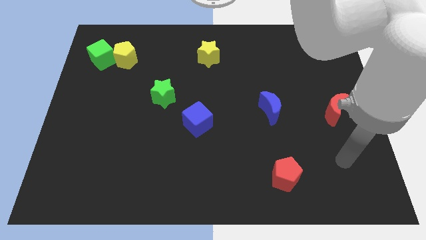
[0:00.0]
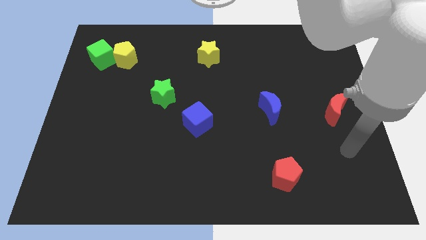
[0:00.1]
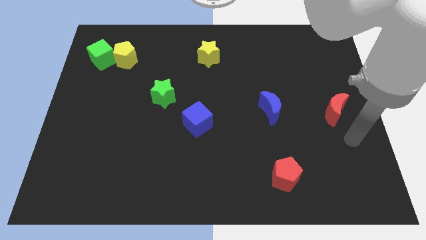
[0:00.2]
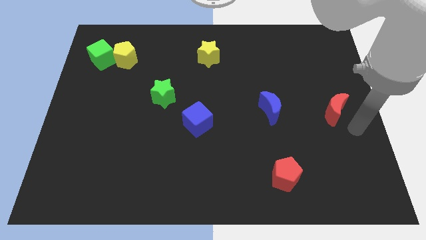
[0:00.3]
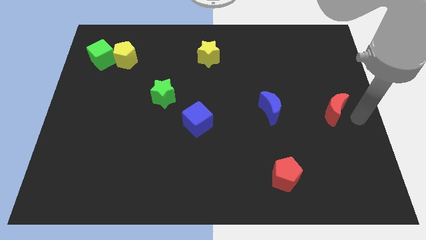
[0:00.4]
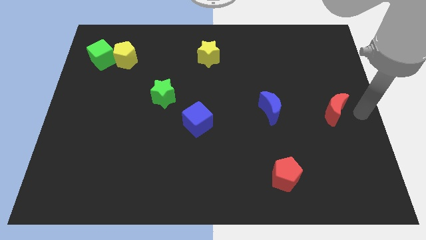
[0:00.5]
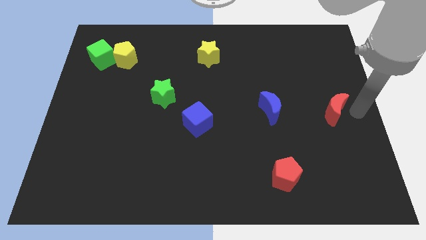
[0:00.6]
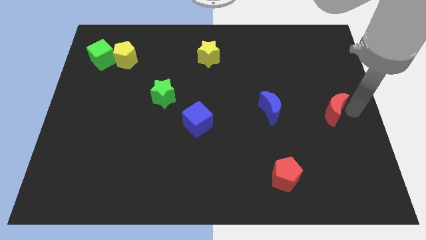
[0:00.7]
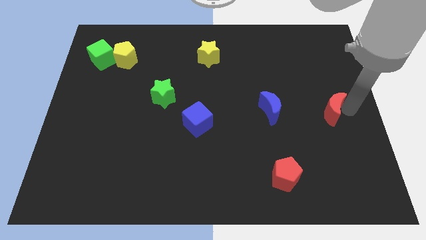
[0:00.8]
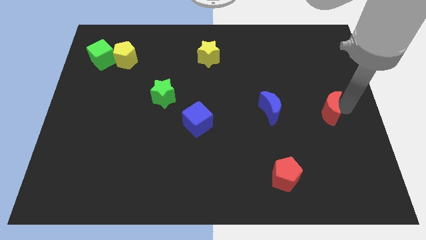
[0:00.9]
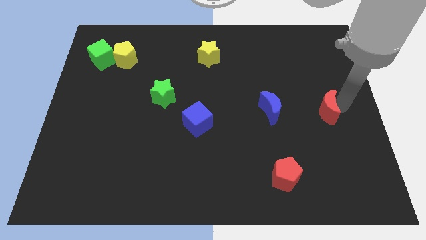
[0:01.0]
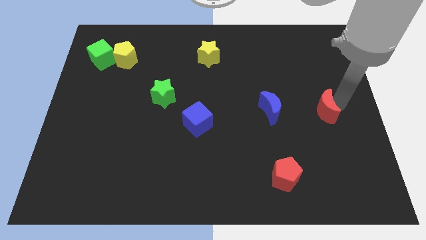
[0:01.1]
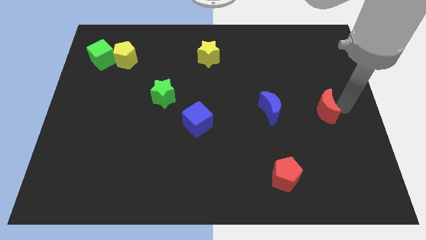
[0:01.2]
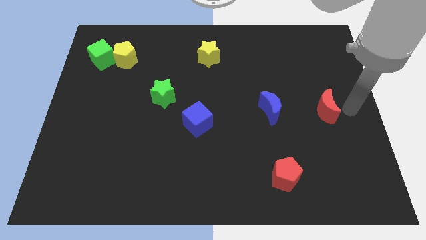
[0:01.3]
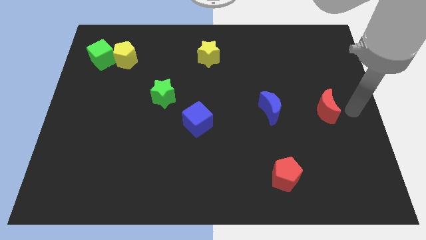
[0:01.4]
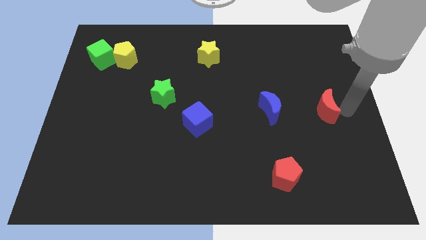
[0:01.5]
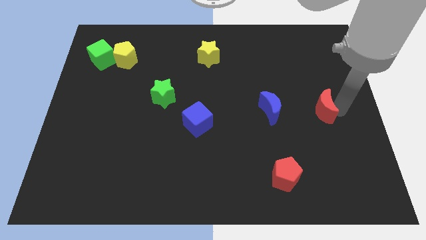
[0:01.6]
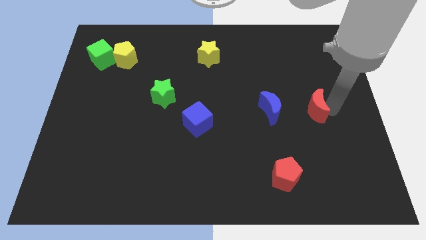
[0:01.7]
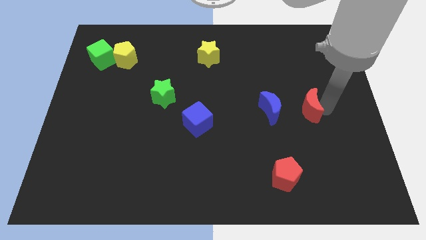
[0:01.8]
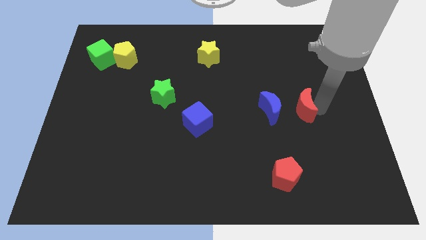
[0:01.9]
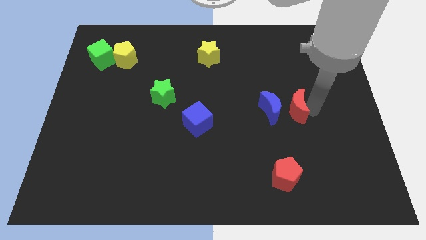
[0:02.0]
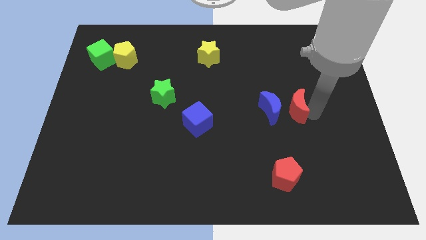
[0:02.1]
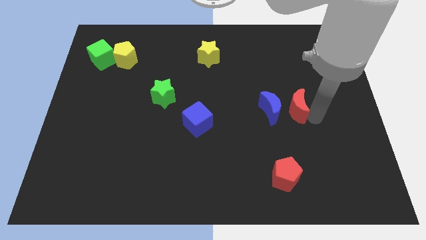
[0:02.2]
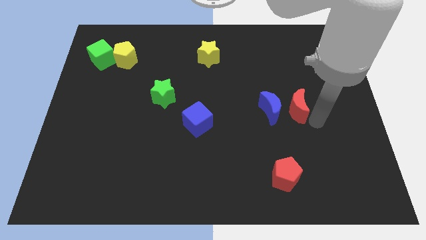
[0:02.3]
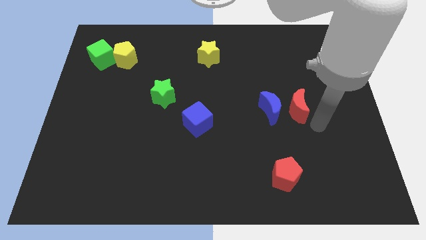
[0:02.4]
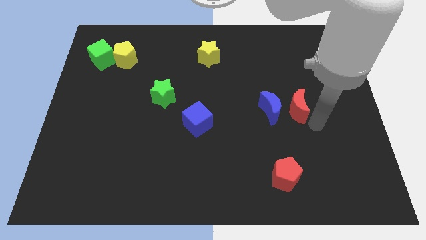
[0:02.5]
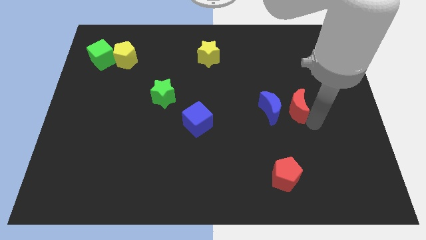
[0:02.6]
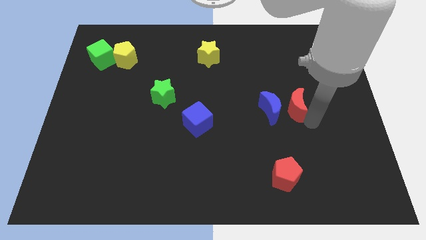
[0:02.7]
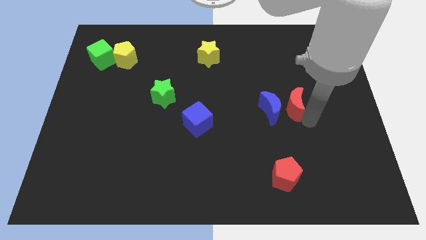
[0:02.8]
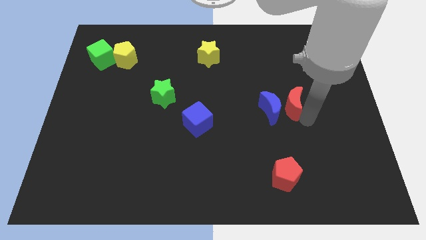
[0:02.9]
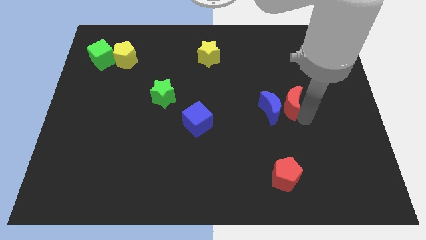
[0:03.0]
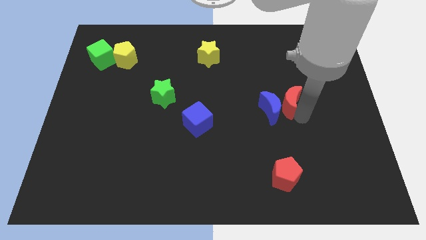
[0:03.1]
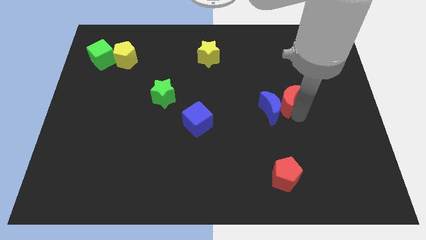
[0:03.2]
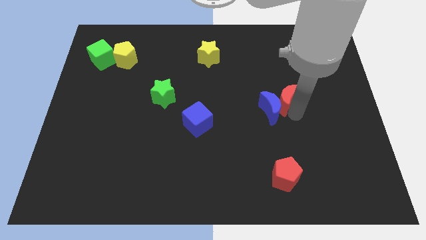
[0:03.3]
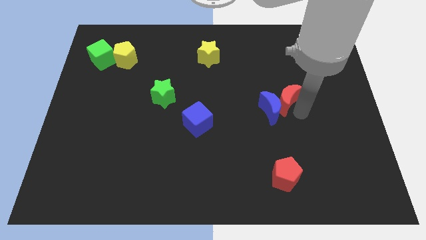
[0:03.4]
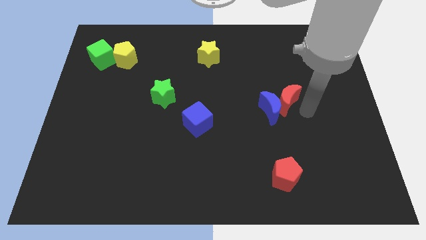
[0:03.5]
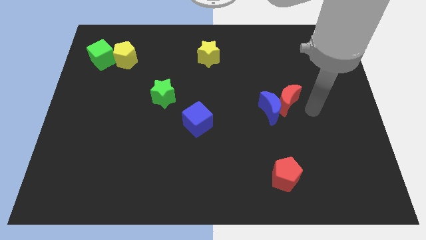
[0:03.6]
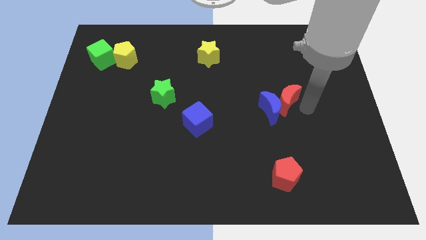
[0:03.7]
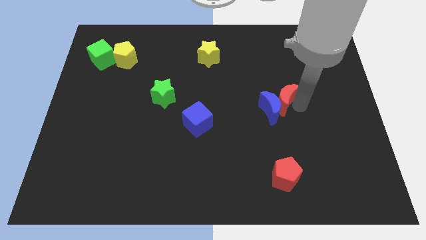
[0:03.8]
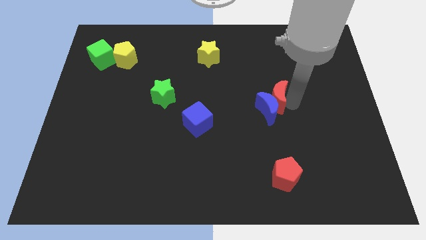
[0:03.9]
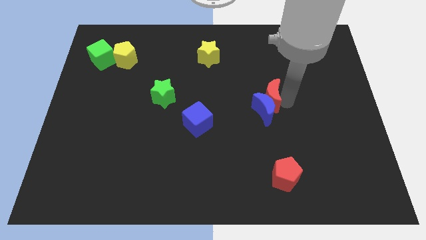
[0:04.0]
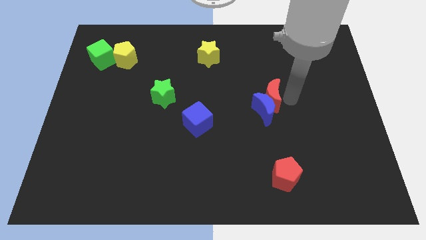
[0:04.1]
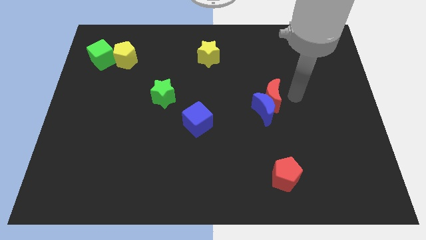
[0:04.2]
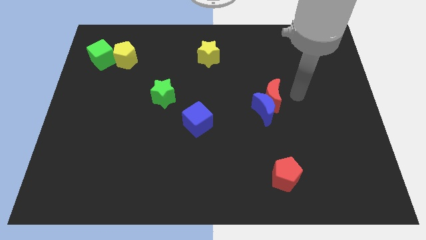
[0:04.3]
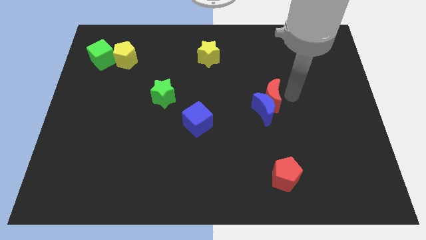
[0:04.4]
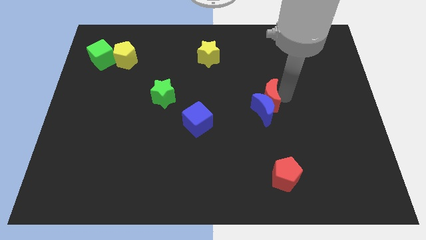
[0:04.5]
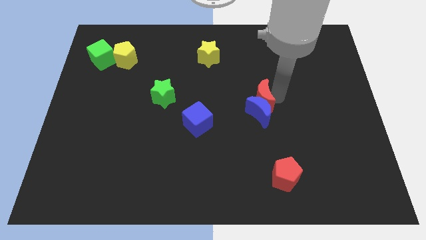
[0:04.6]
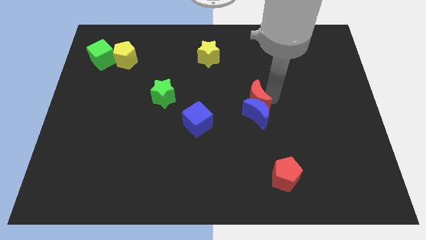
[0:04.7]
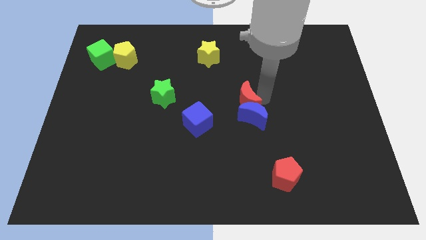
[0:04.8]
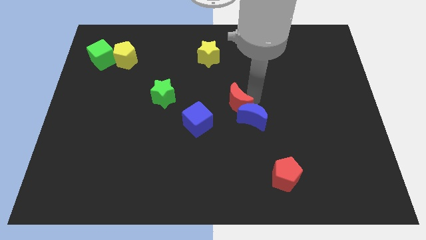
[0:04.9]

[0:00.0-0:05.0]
put the red moon left of the blue moon

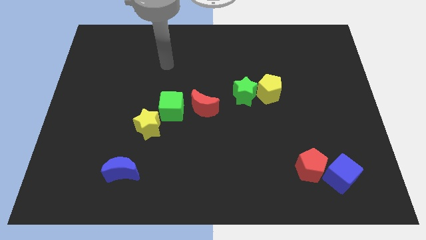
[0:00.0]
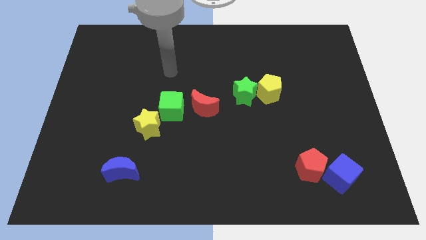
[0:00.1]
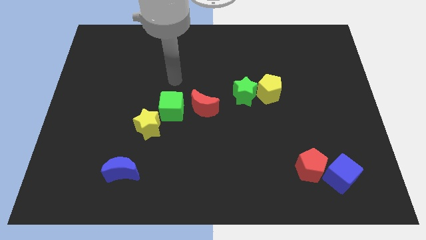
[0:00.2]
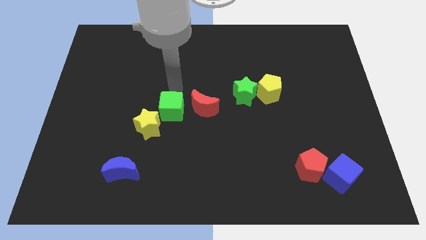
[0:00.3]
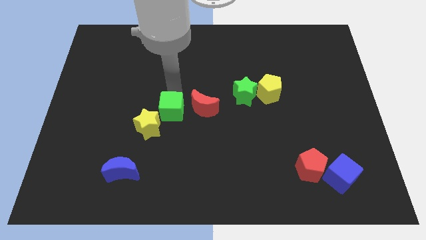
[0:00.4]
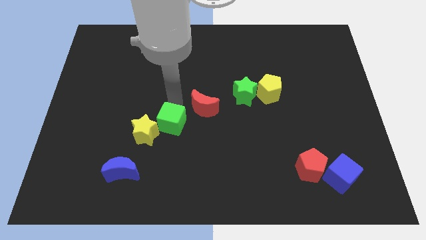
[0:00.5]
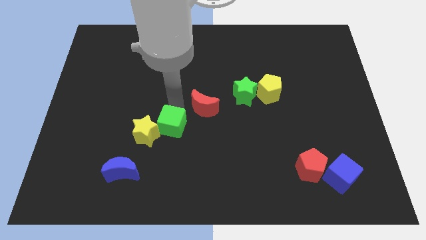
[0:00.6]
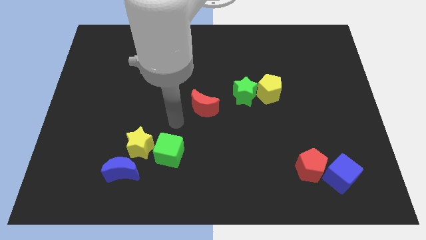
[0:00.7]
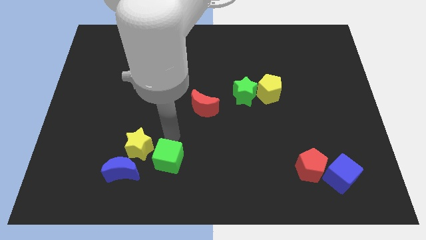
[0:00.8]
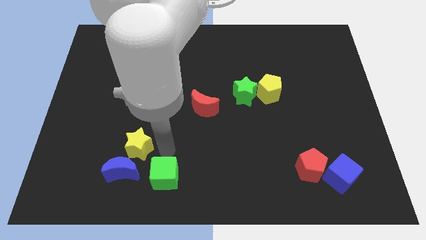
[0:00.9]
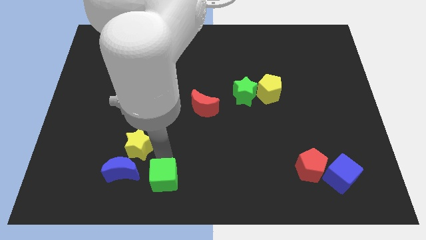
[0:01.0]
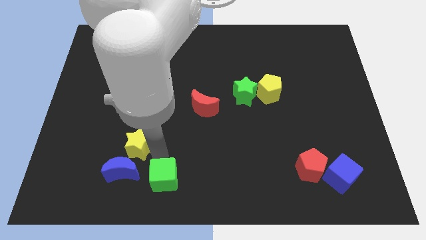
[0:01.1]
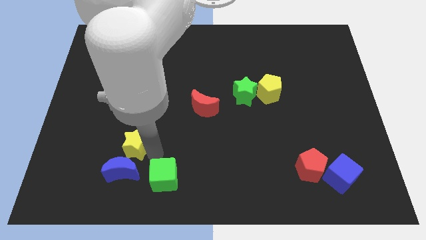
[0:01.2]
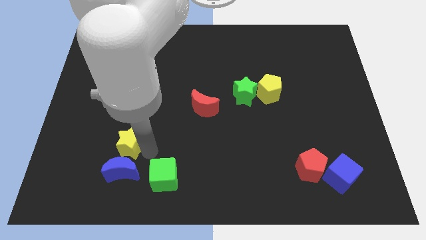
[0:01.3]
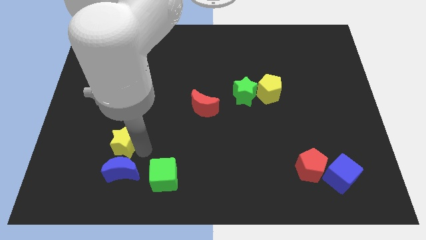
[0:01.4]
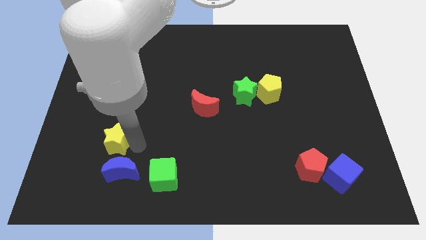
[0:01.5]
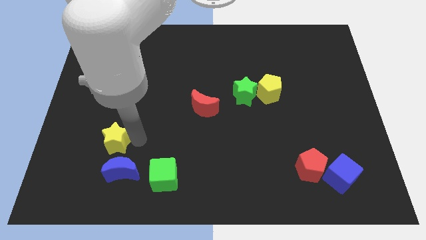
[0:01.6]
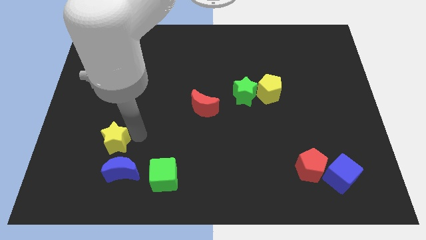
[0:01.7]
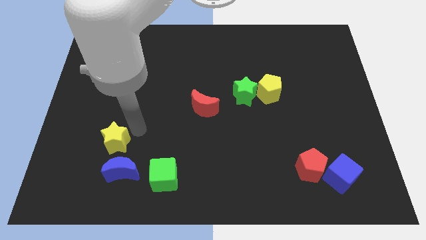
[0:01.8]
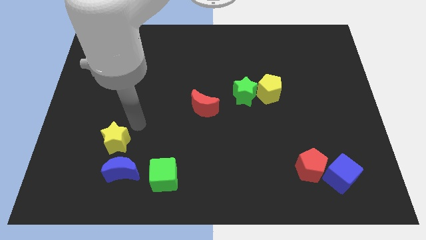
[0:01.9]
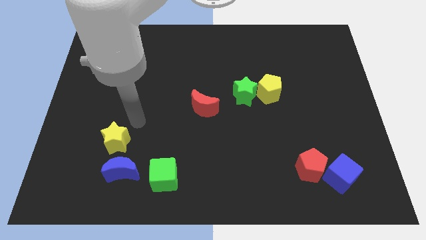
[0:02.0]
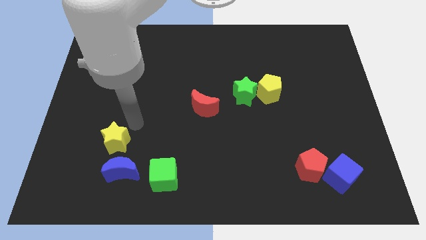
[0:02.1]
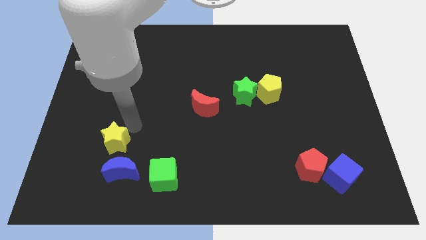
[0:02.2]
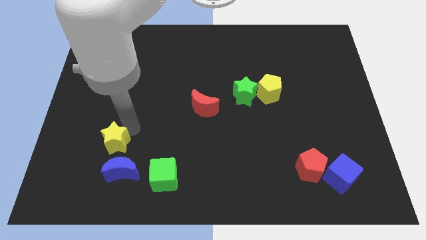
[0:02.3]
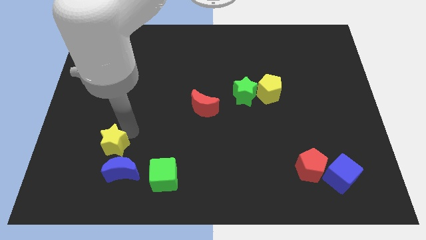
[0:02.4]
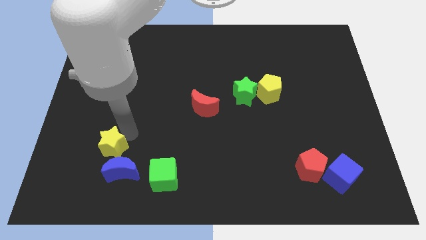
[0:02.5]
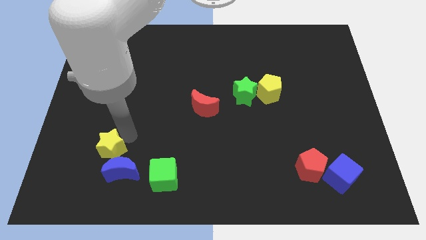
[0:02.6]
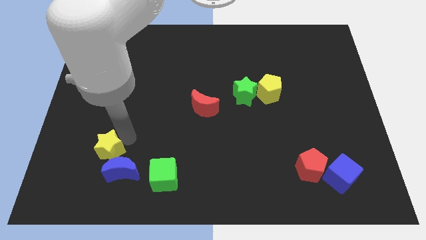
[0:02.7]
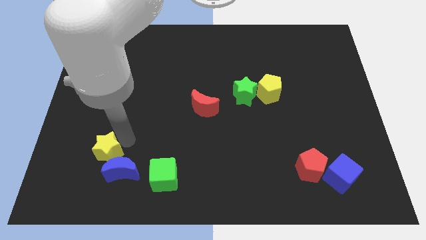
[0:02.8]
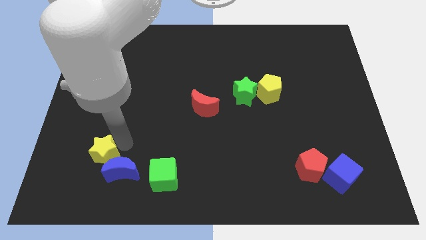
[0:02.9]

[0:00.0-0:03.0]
put the yellow star to the left side of the blue moon
